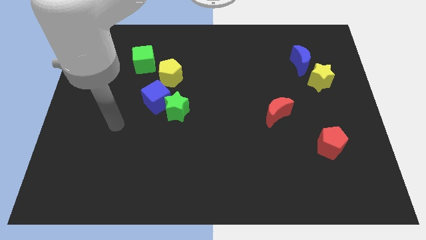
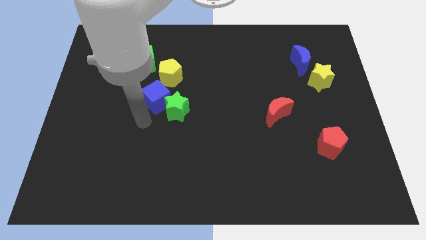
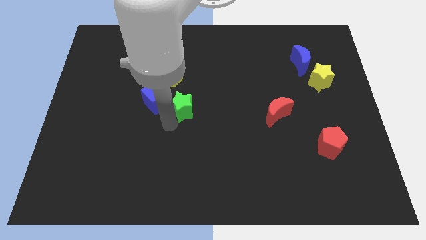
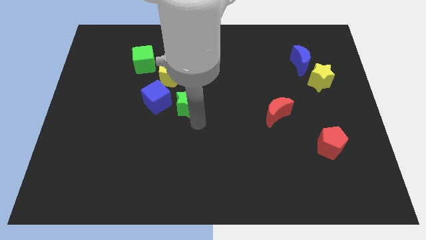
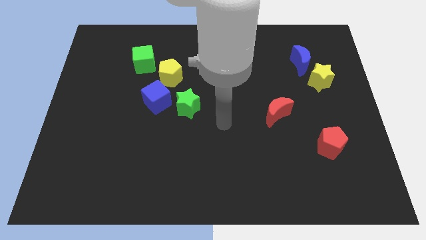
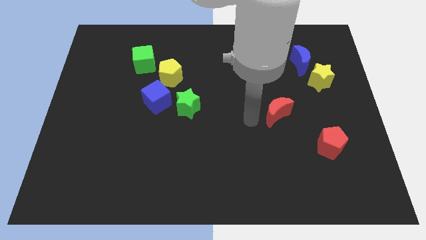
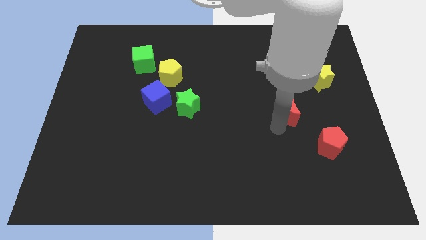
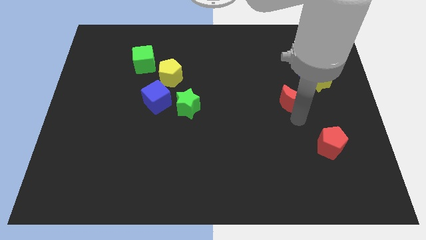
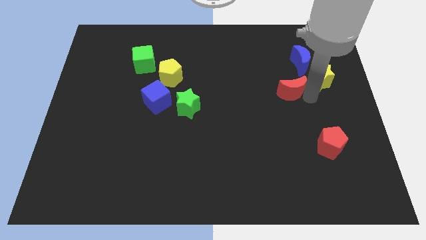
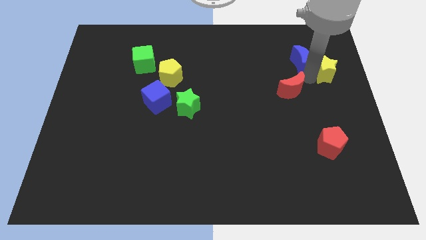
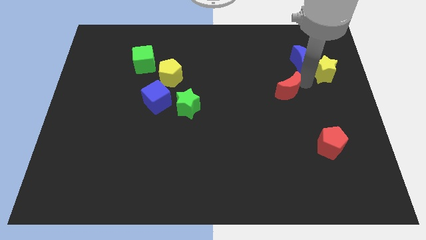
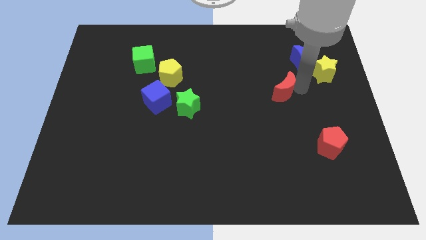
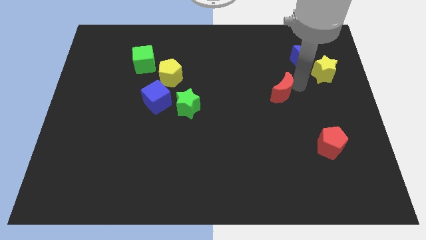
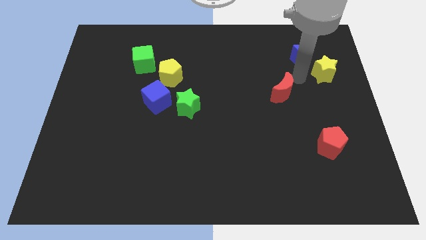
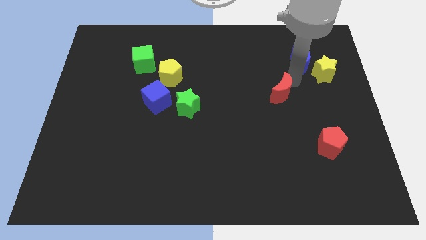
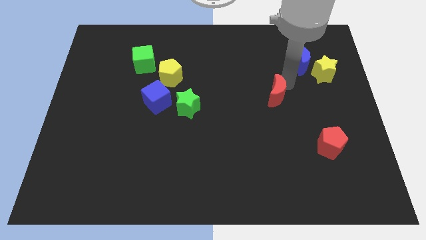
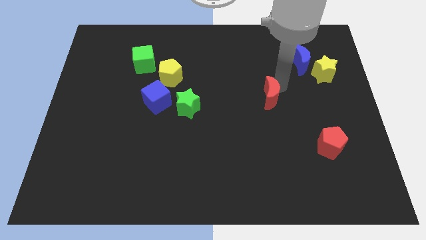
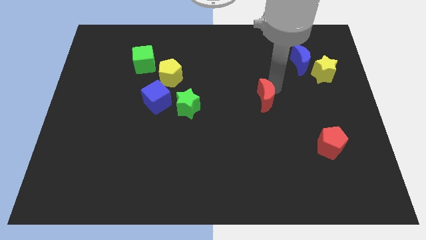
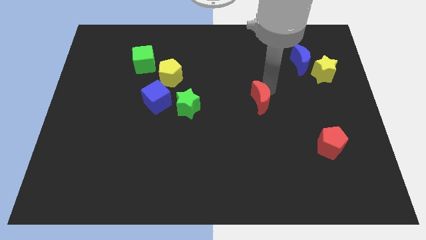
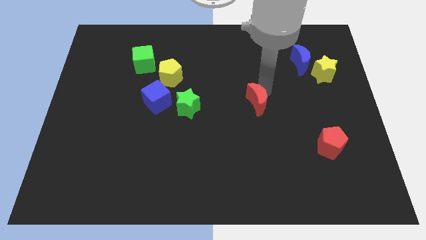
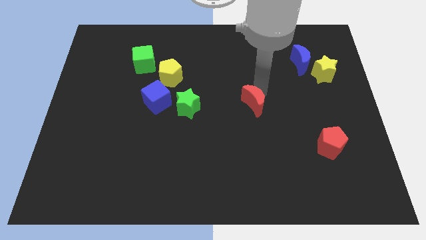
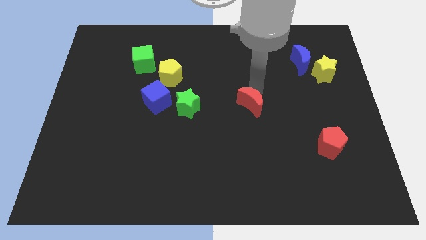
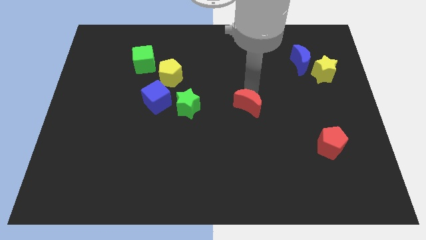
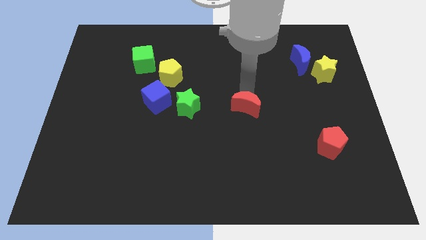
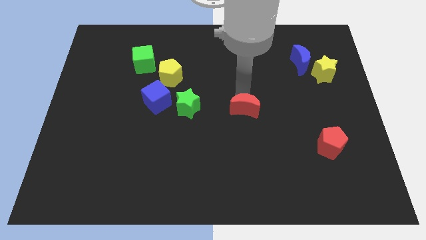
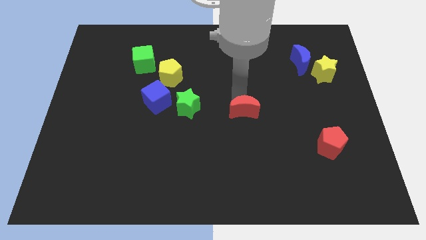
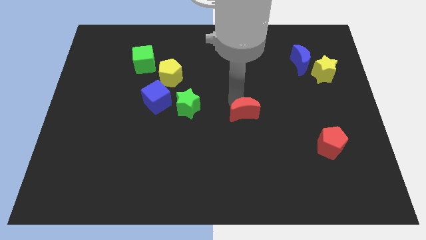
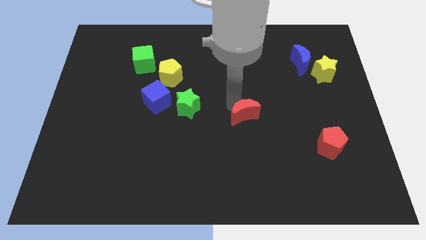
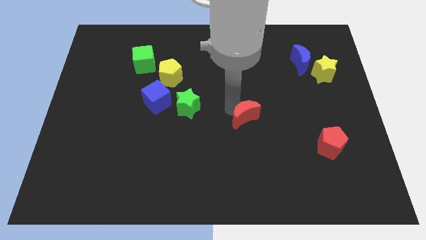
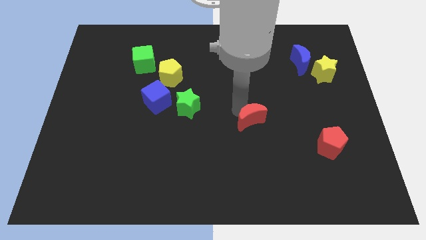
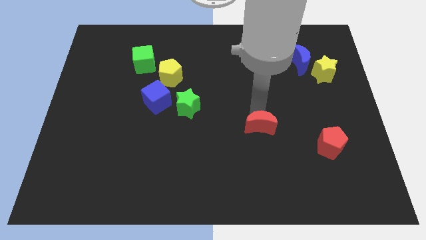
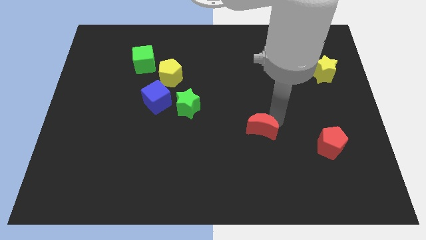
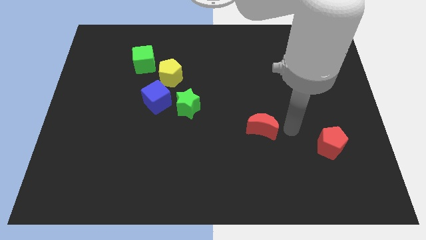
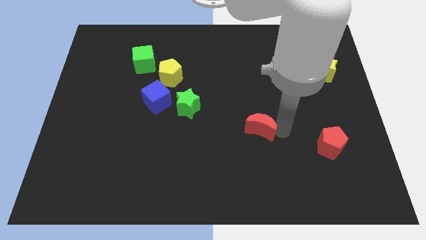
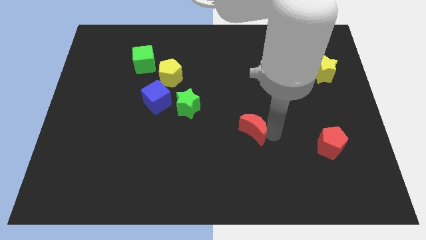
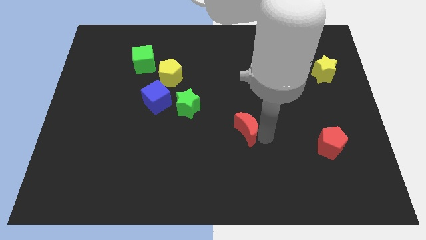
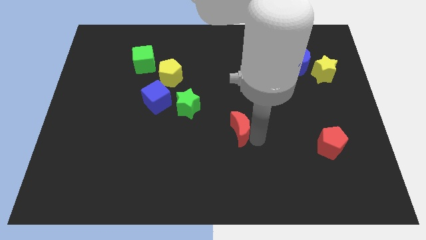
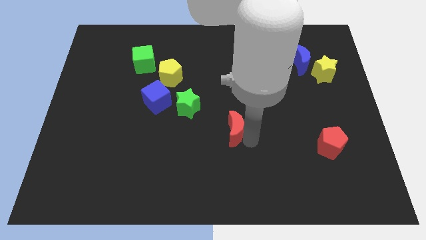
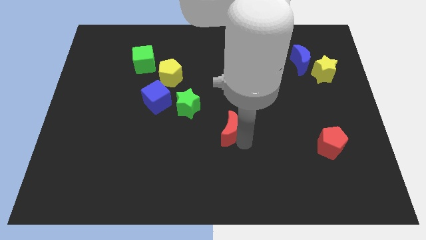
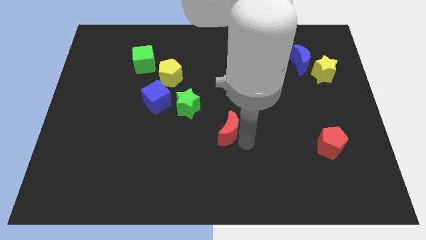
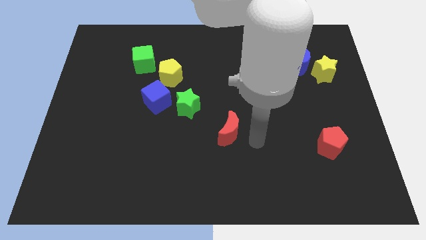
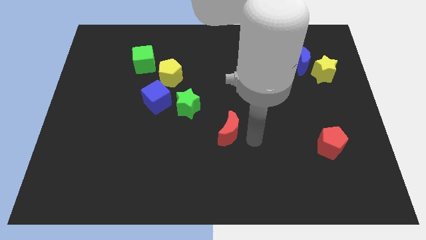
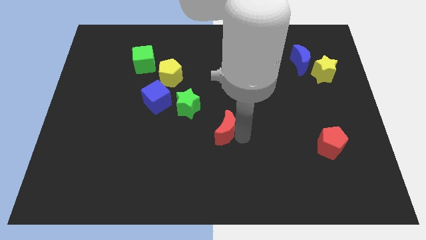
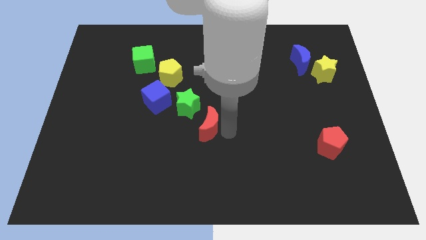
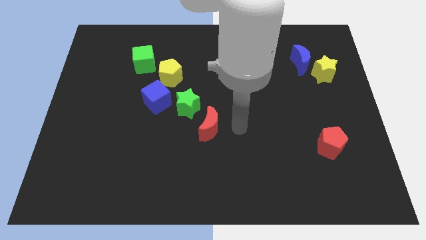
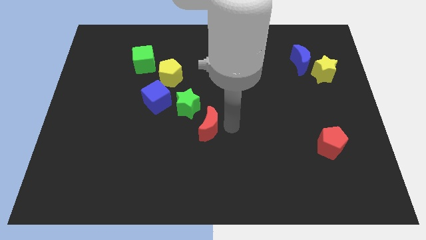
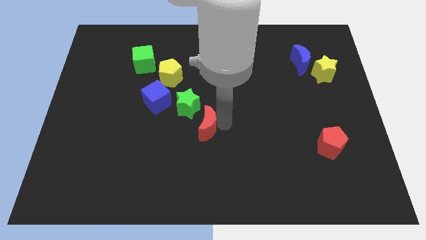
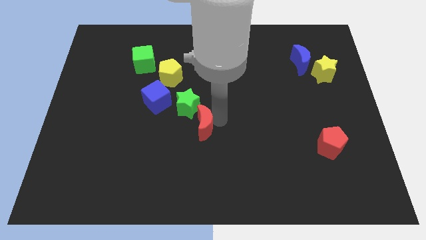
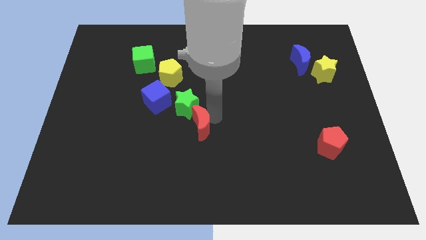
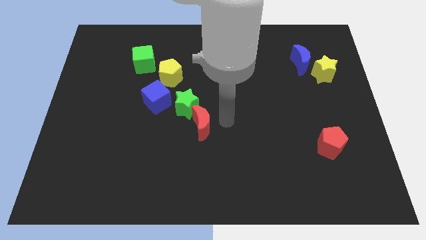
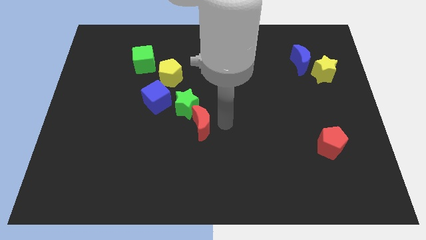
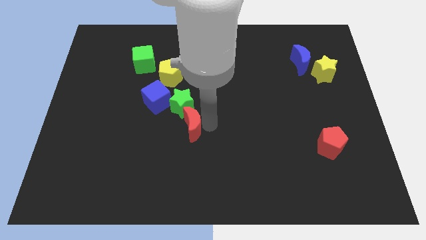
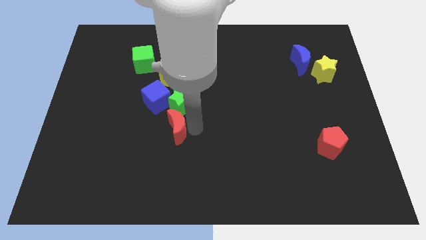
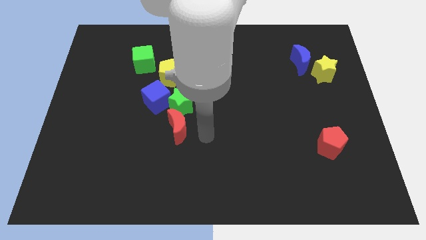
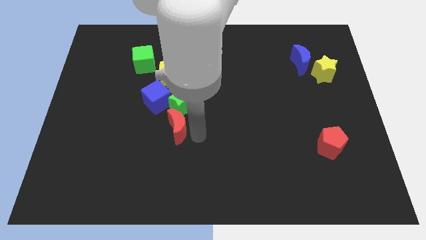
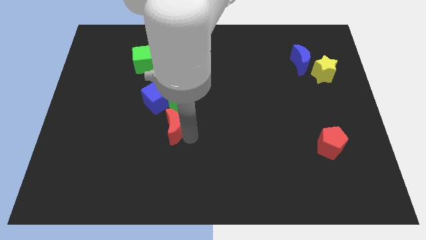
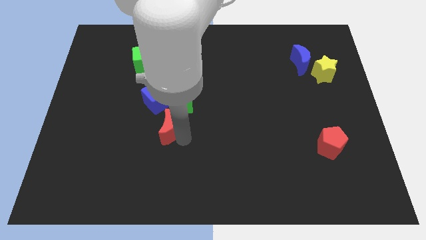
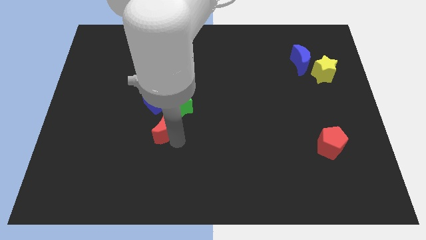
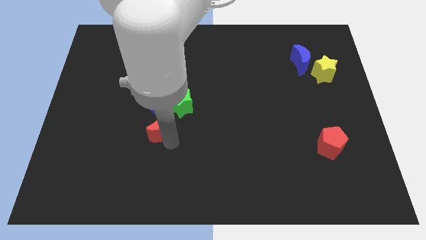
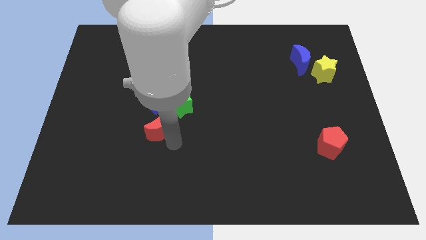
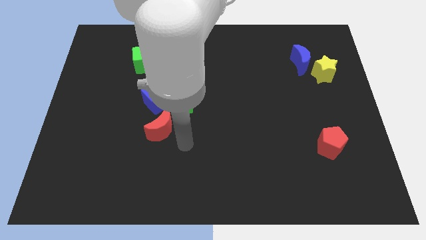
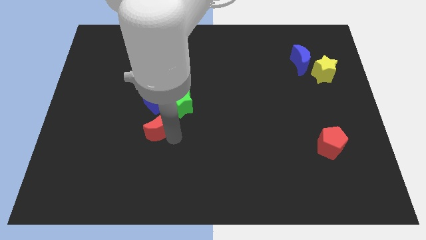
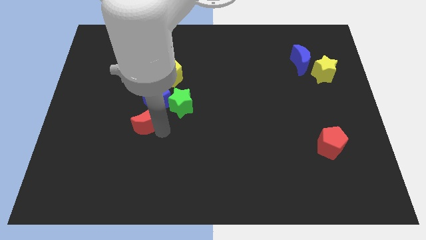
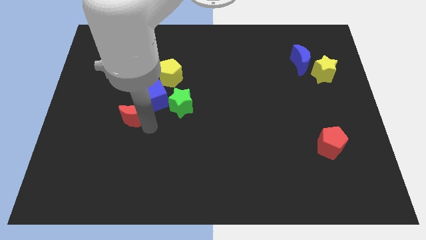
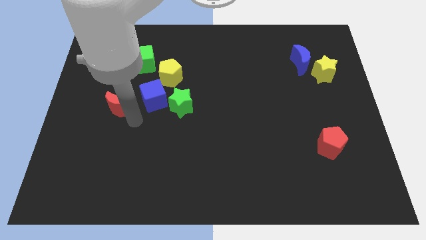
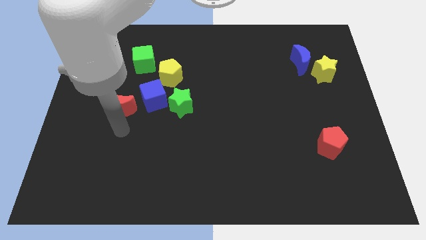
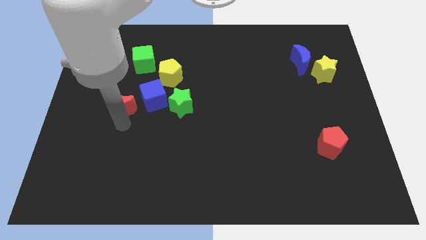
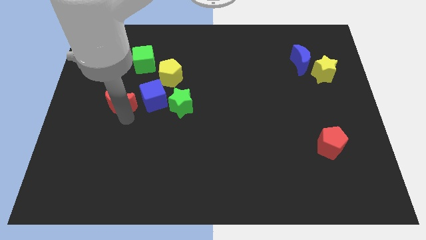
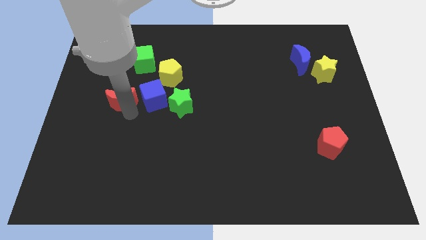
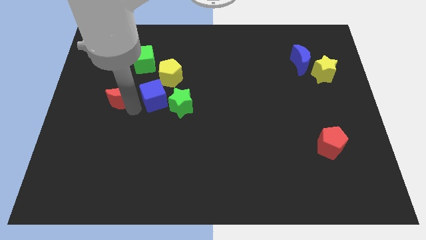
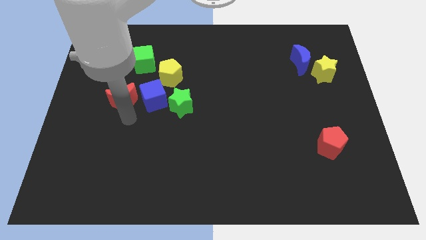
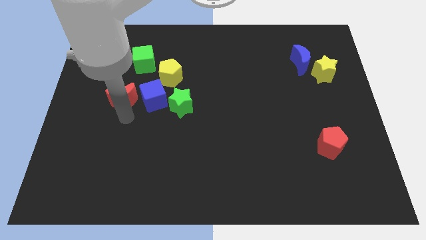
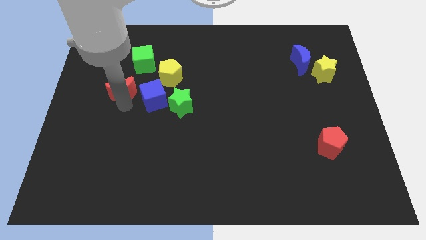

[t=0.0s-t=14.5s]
push the red moon to the bottom left side of the green cube
